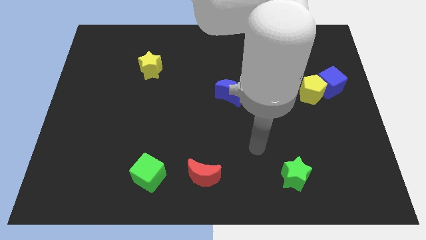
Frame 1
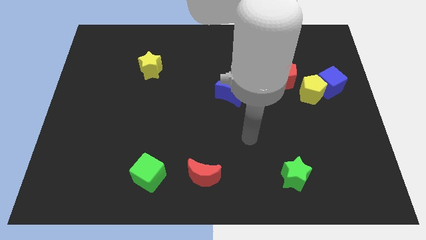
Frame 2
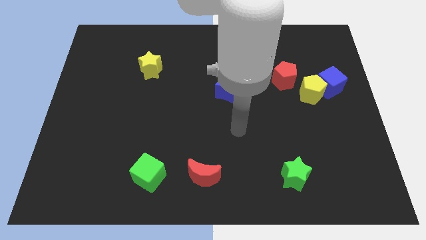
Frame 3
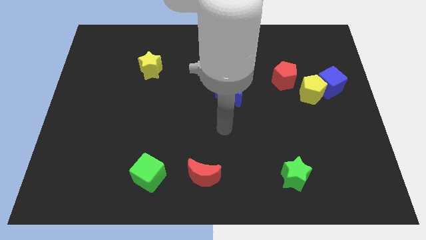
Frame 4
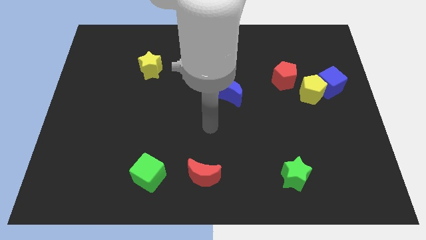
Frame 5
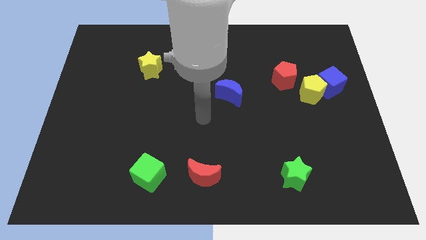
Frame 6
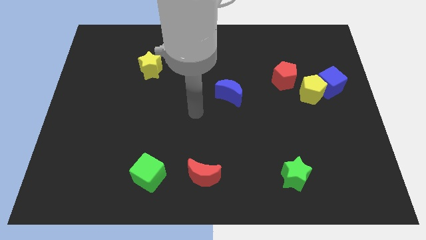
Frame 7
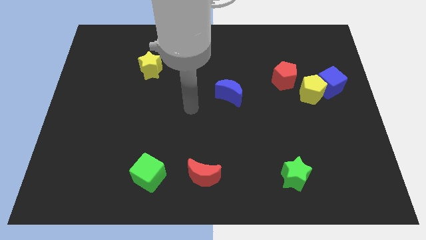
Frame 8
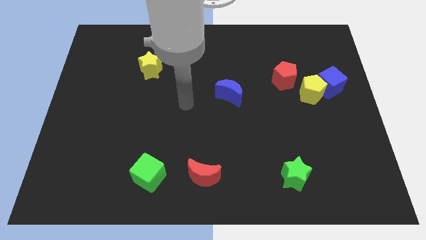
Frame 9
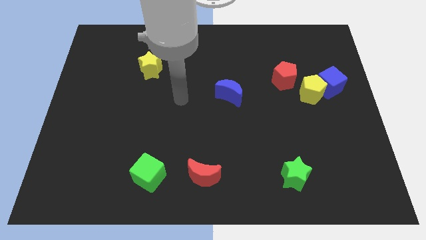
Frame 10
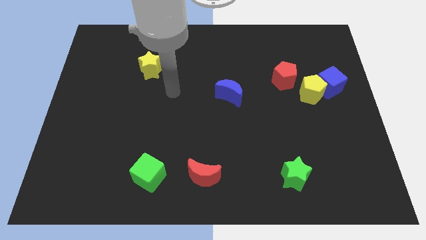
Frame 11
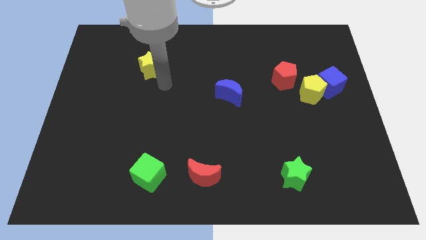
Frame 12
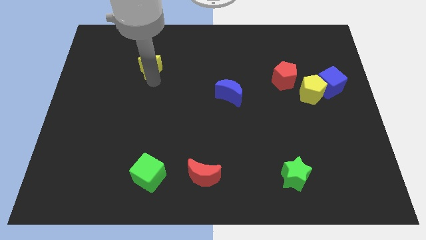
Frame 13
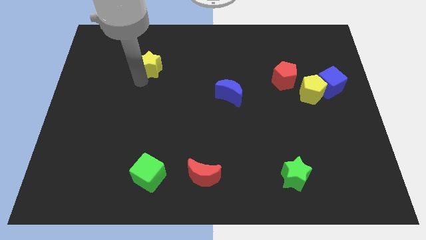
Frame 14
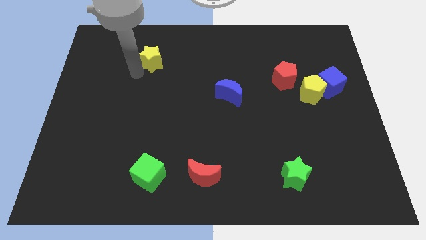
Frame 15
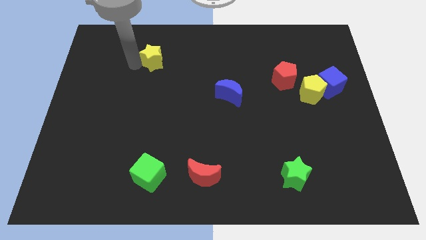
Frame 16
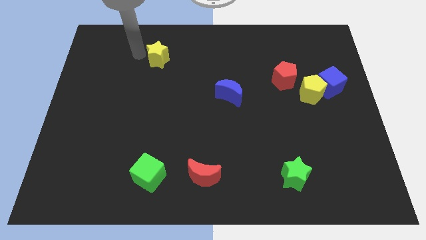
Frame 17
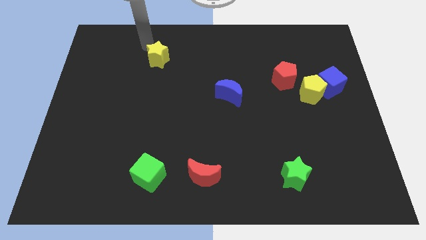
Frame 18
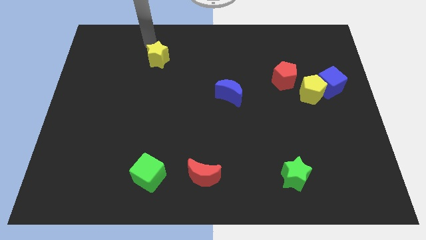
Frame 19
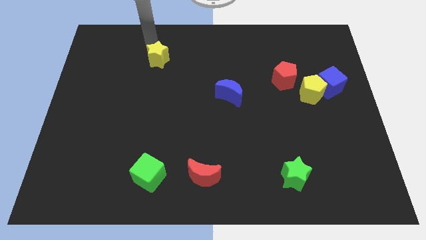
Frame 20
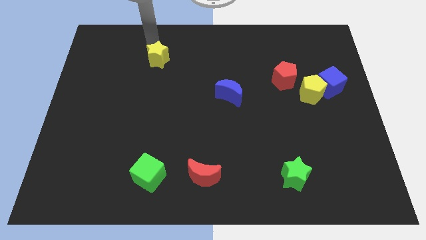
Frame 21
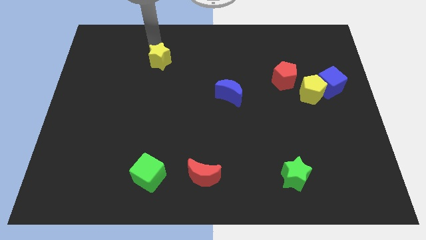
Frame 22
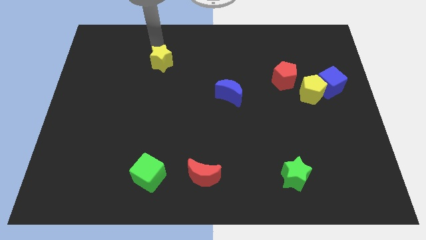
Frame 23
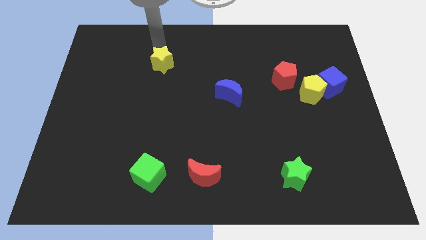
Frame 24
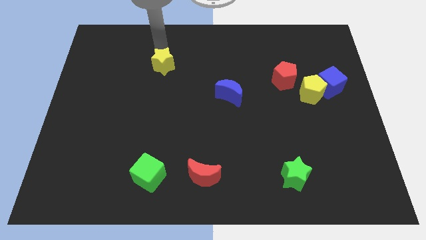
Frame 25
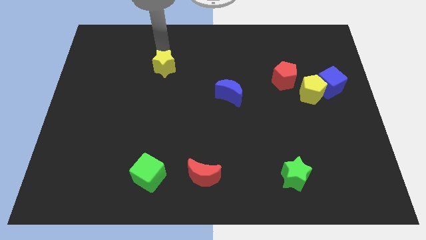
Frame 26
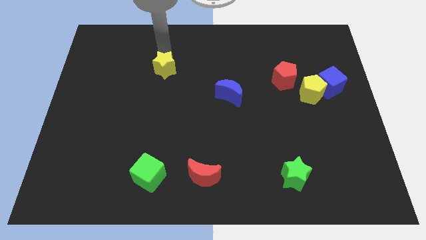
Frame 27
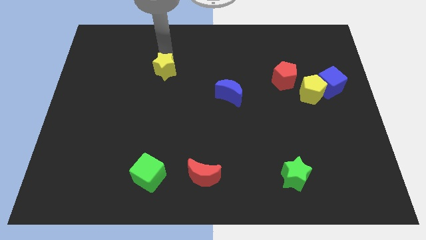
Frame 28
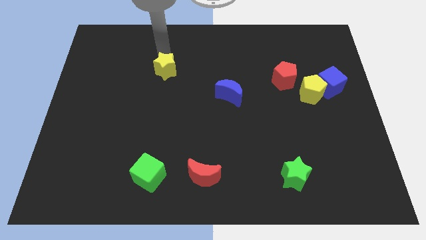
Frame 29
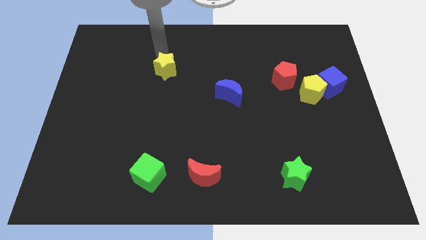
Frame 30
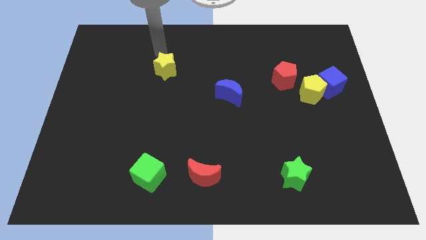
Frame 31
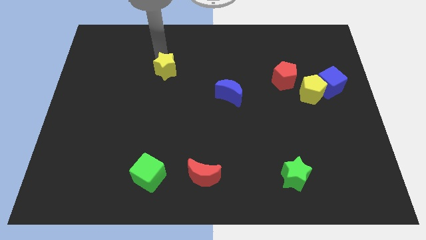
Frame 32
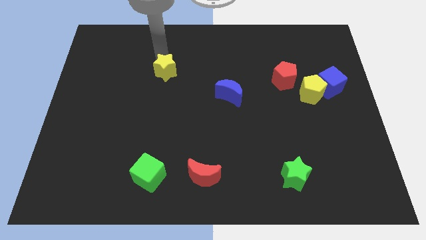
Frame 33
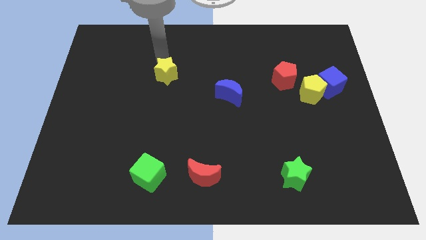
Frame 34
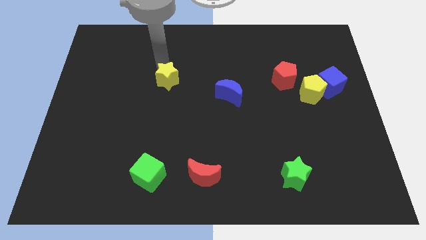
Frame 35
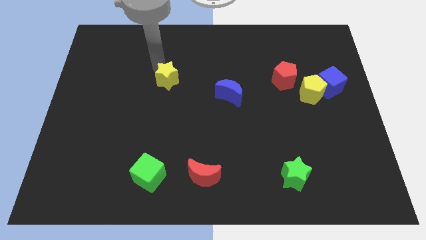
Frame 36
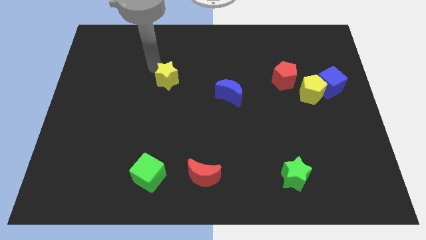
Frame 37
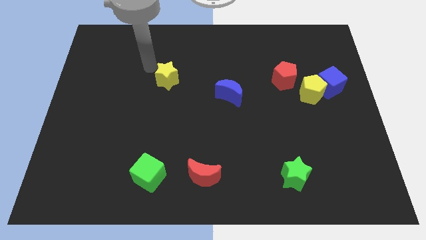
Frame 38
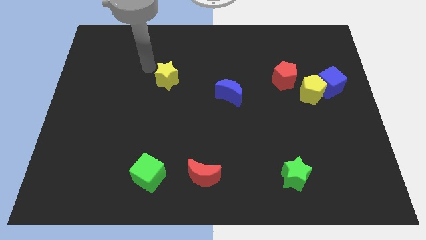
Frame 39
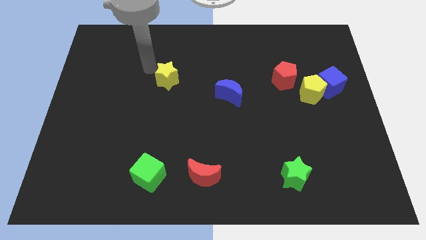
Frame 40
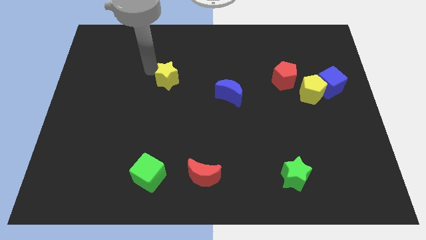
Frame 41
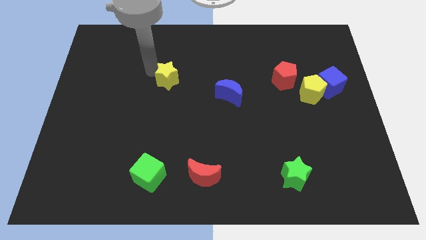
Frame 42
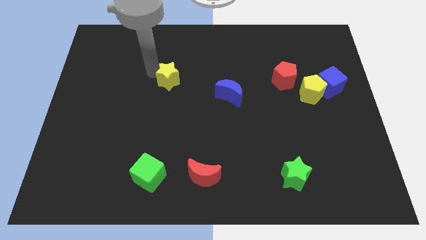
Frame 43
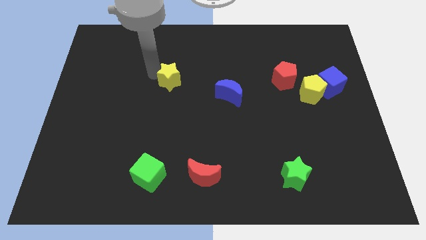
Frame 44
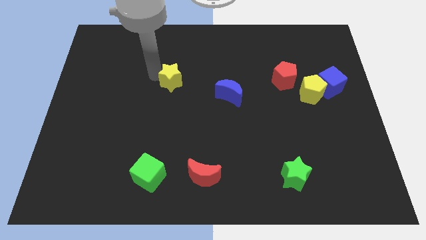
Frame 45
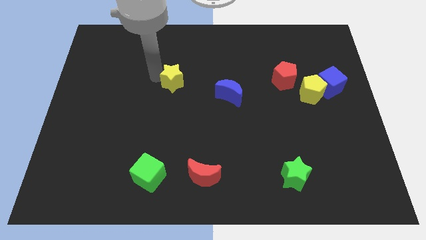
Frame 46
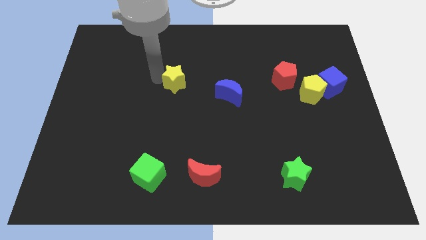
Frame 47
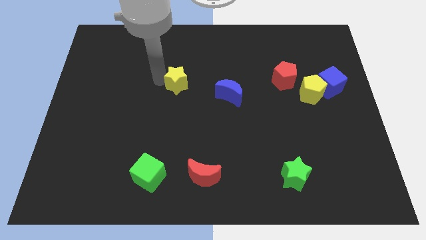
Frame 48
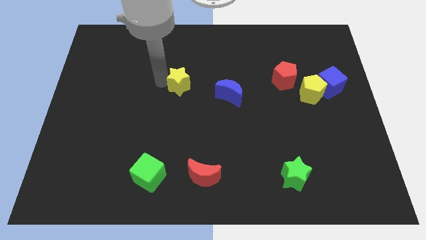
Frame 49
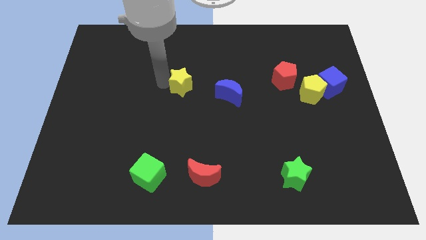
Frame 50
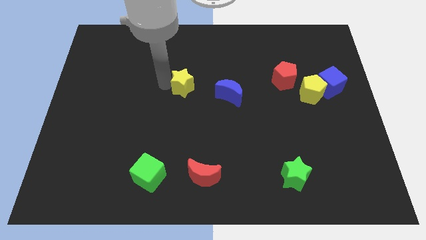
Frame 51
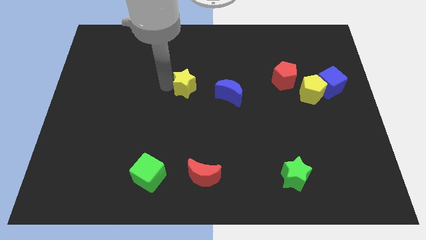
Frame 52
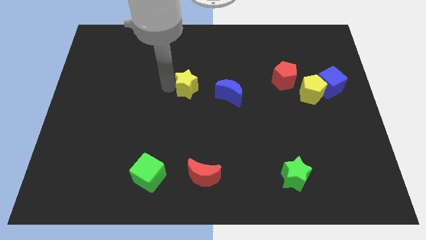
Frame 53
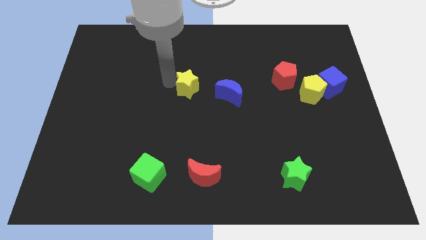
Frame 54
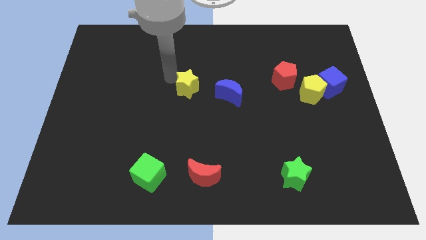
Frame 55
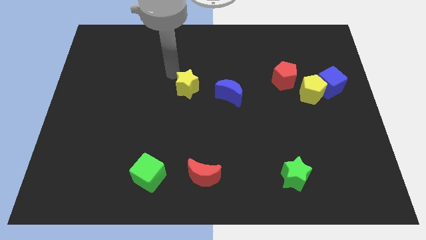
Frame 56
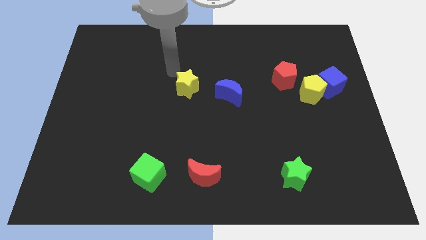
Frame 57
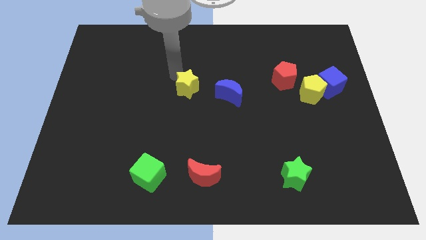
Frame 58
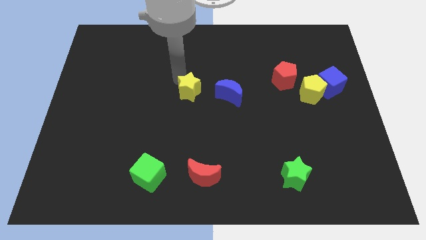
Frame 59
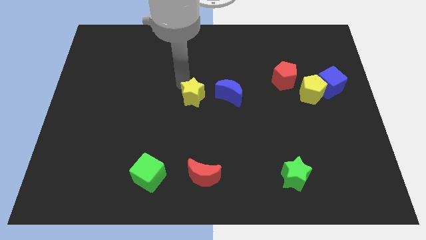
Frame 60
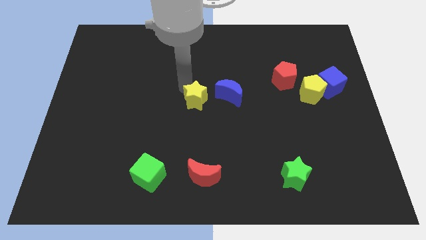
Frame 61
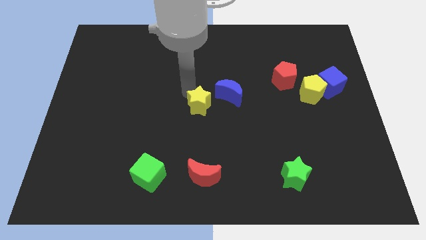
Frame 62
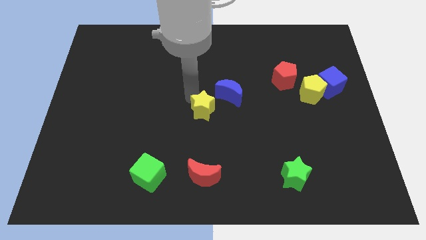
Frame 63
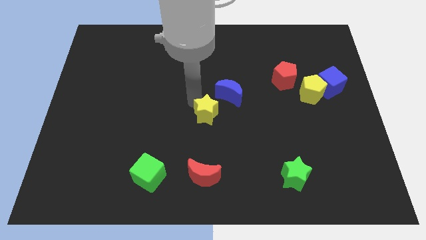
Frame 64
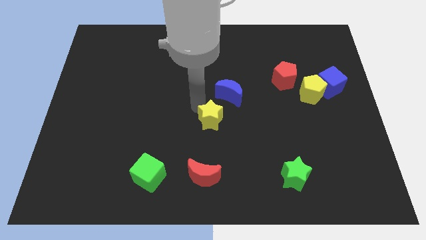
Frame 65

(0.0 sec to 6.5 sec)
move the yellow star to the bottom of the blue moon

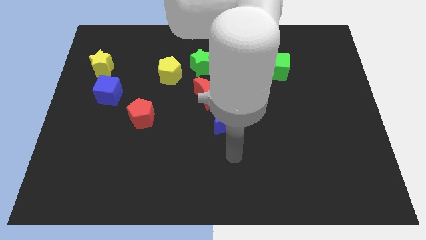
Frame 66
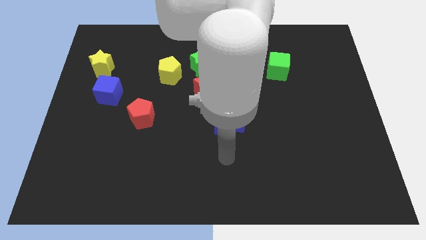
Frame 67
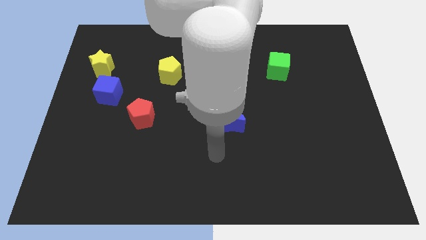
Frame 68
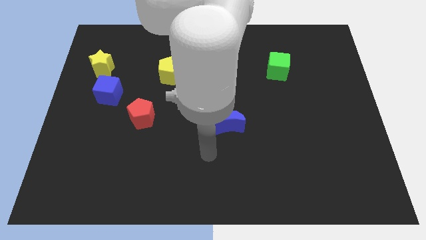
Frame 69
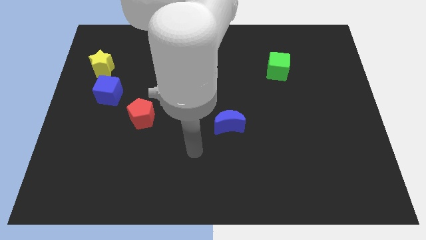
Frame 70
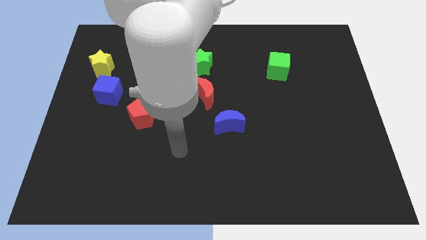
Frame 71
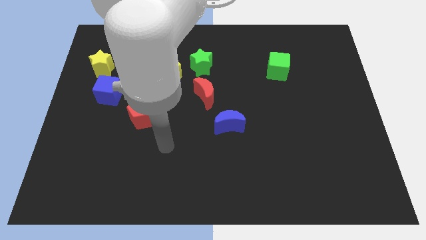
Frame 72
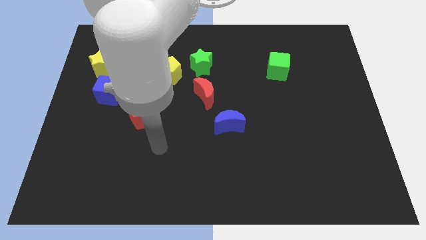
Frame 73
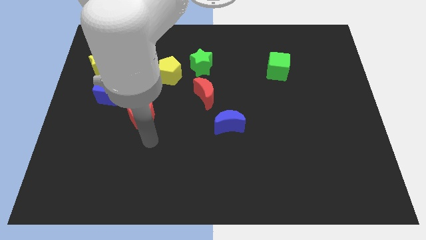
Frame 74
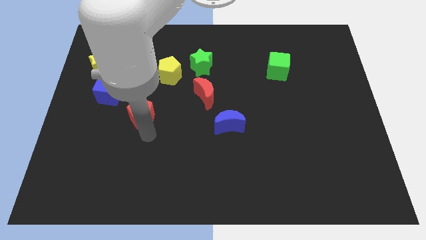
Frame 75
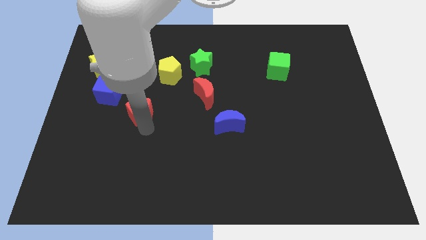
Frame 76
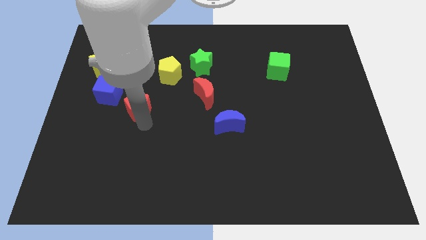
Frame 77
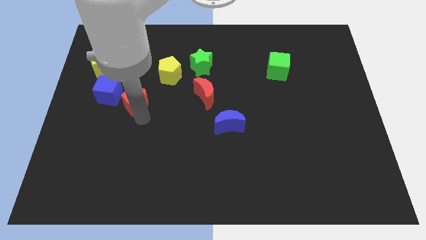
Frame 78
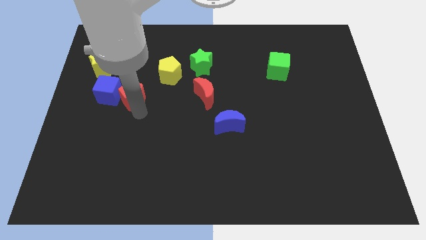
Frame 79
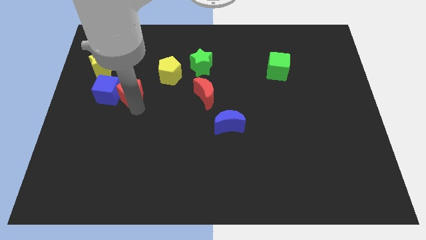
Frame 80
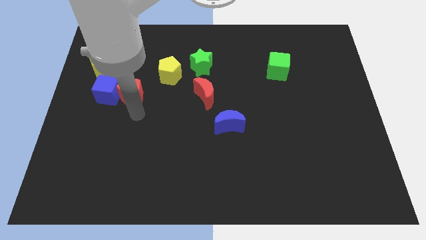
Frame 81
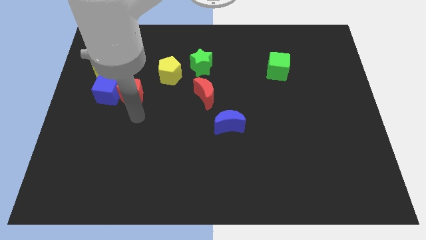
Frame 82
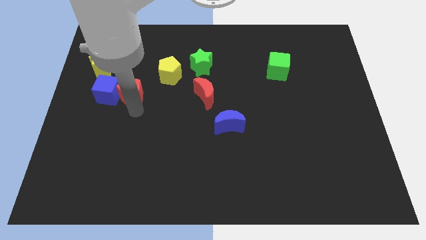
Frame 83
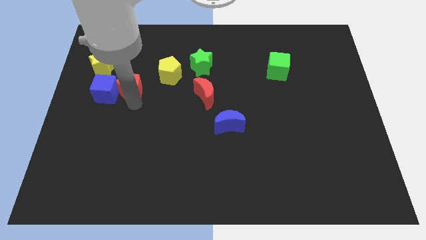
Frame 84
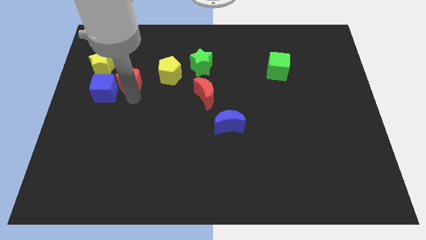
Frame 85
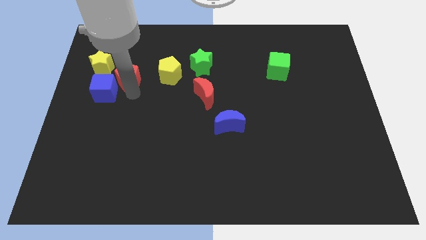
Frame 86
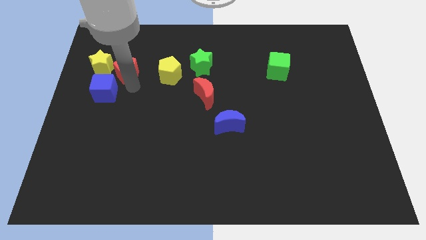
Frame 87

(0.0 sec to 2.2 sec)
slide the red pentagon above the blue cube

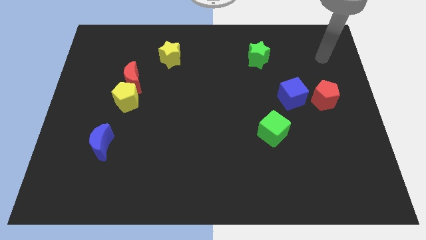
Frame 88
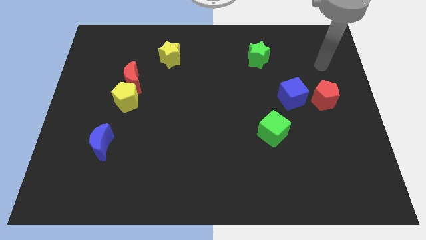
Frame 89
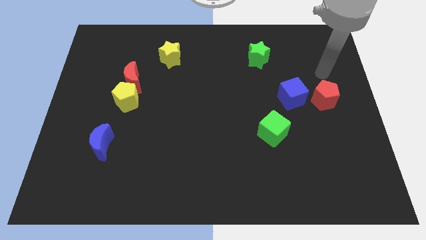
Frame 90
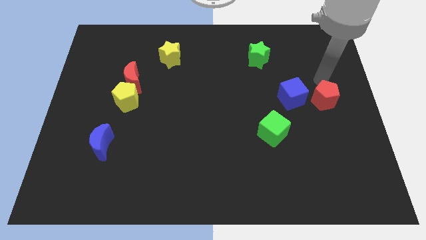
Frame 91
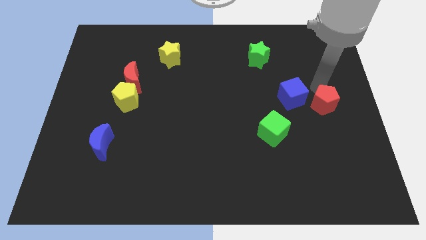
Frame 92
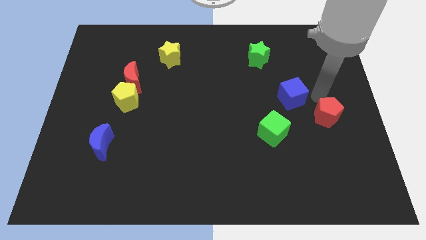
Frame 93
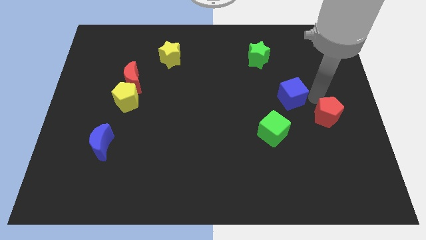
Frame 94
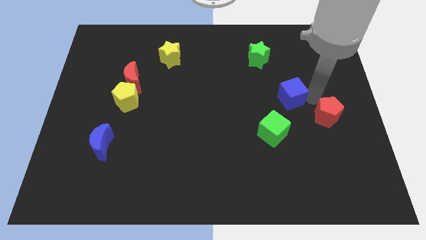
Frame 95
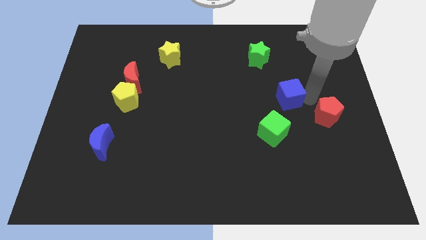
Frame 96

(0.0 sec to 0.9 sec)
slide the blue cube above the green cube
